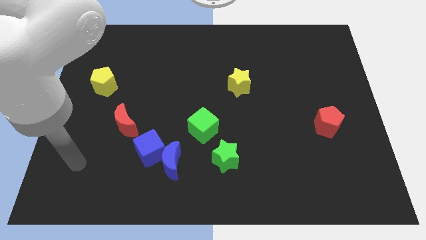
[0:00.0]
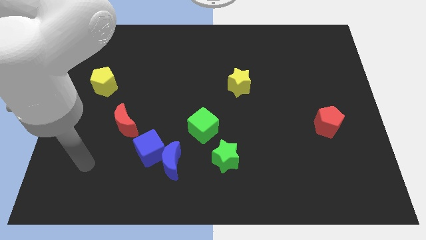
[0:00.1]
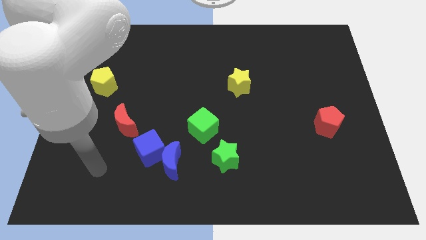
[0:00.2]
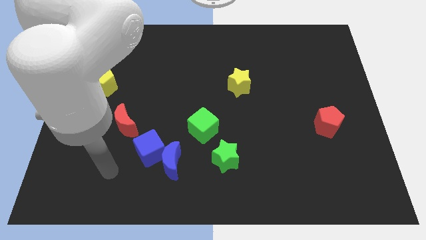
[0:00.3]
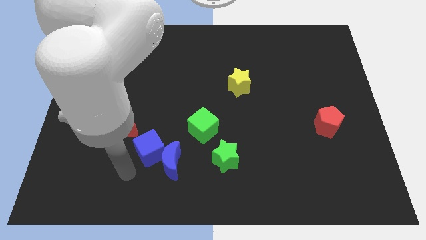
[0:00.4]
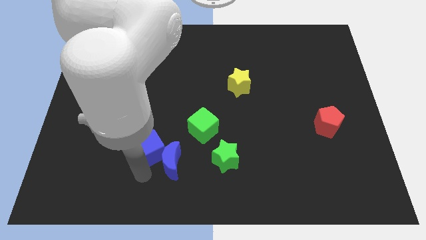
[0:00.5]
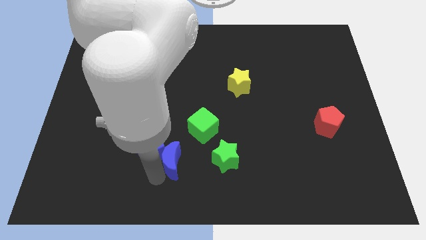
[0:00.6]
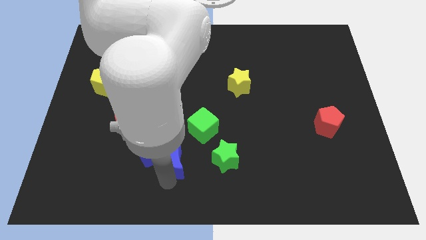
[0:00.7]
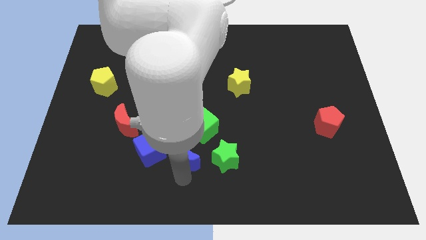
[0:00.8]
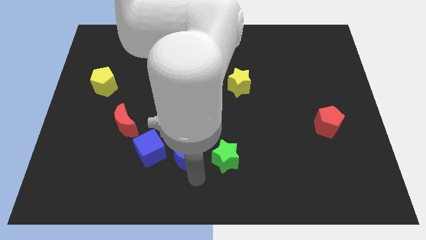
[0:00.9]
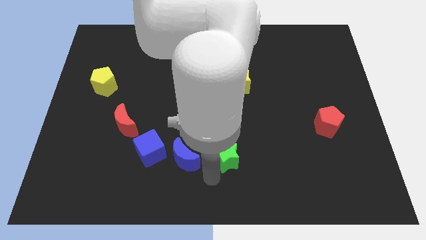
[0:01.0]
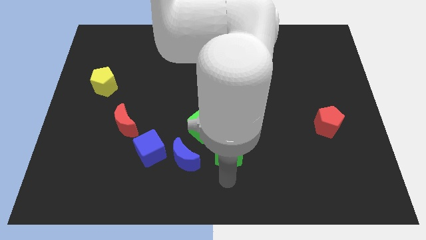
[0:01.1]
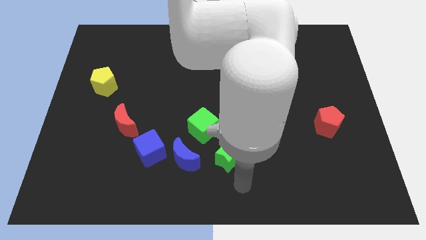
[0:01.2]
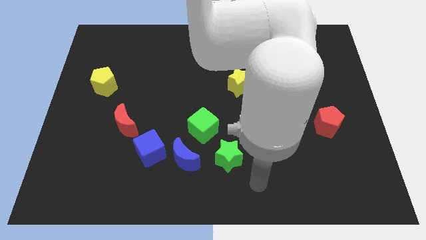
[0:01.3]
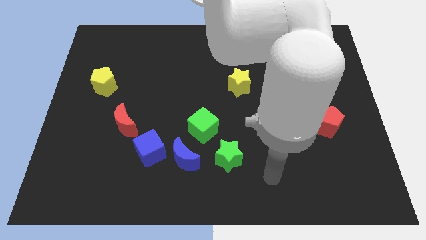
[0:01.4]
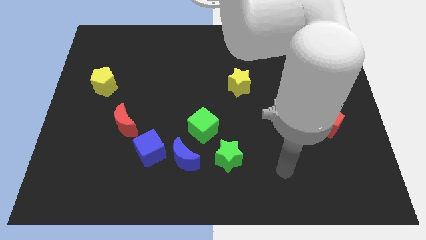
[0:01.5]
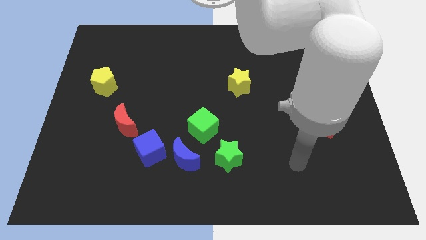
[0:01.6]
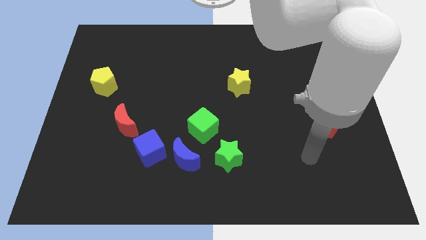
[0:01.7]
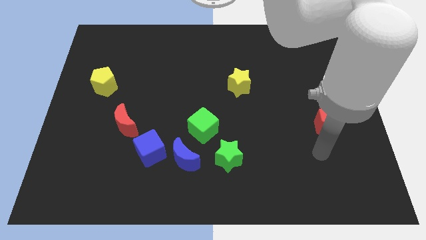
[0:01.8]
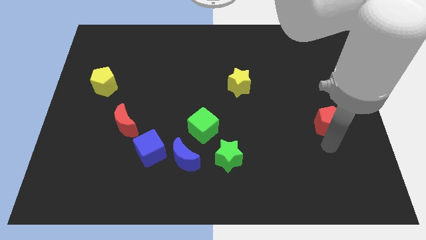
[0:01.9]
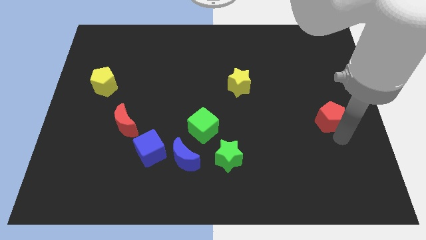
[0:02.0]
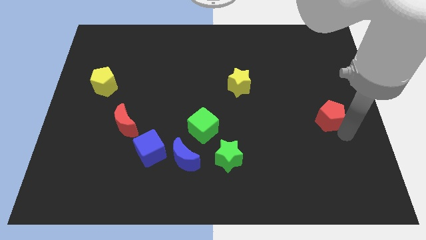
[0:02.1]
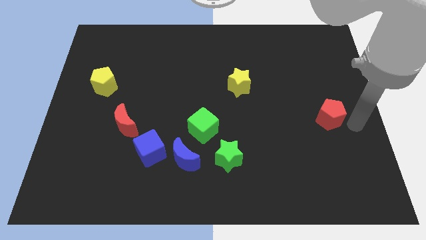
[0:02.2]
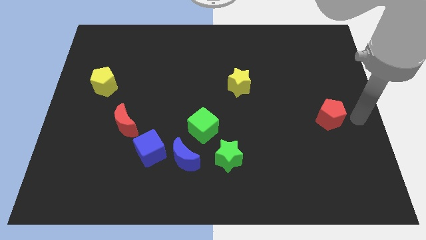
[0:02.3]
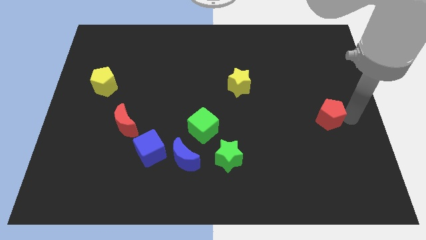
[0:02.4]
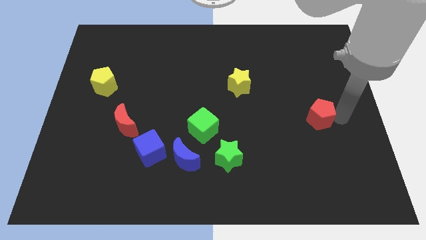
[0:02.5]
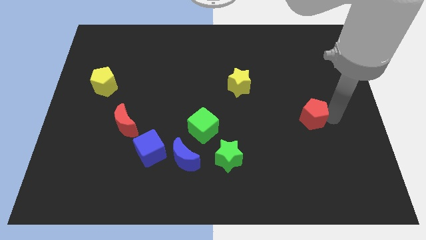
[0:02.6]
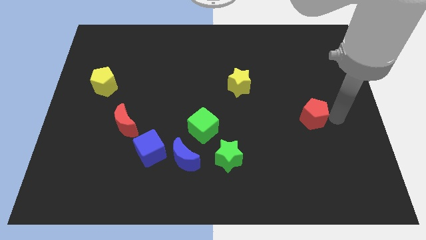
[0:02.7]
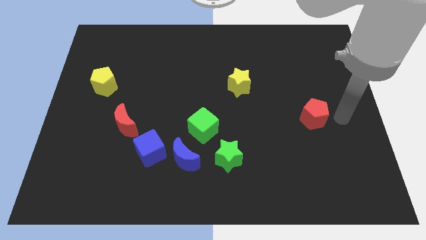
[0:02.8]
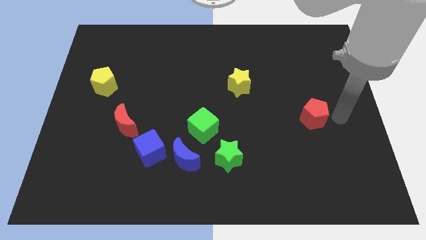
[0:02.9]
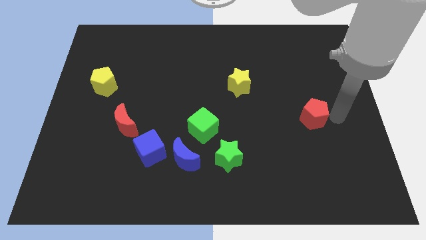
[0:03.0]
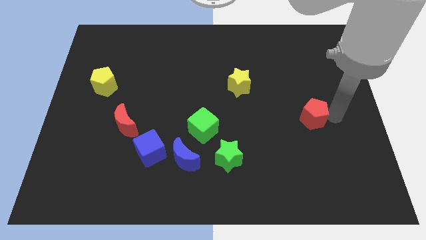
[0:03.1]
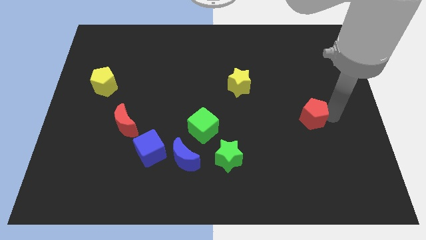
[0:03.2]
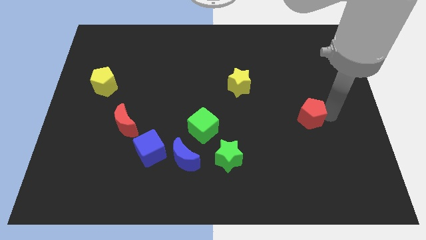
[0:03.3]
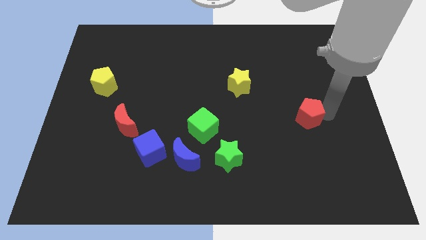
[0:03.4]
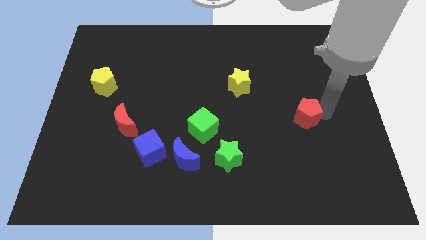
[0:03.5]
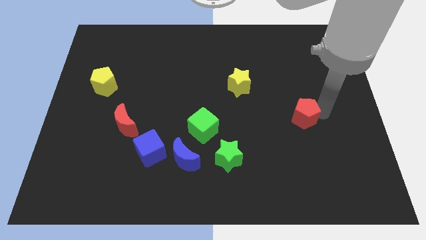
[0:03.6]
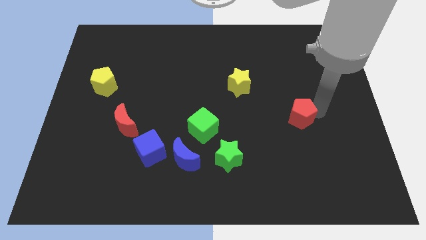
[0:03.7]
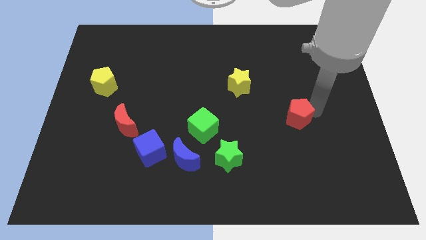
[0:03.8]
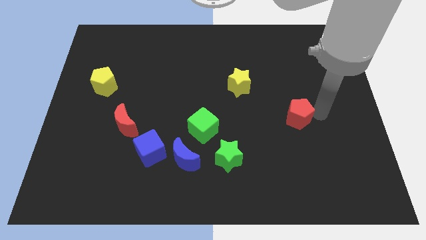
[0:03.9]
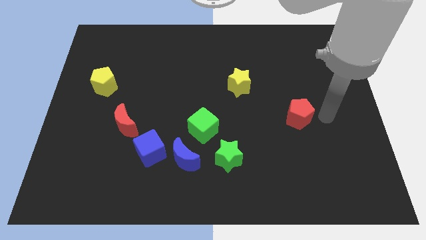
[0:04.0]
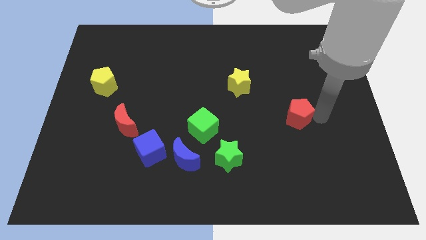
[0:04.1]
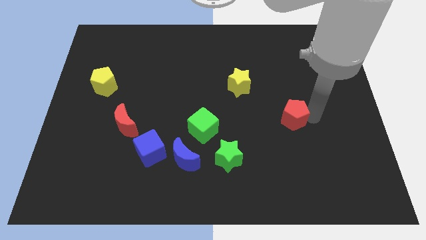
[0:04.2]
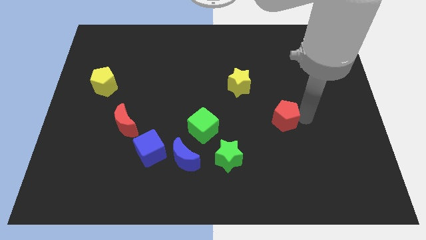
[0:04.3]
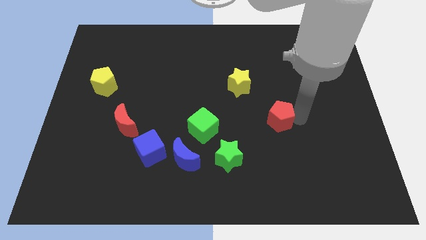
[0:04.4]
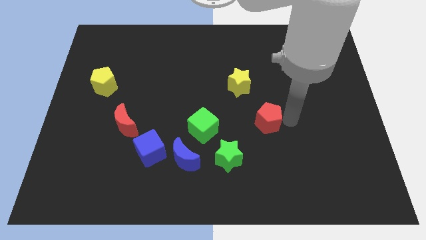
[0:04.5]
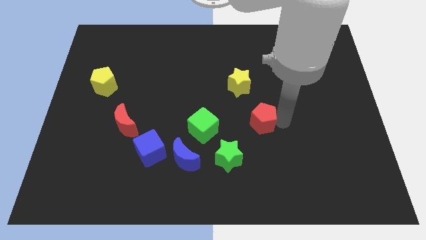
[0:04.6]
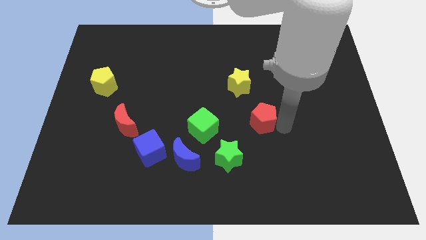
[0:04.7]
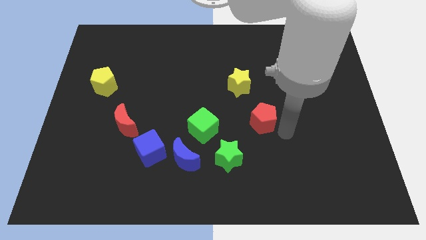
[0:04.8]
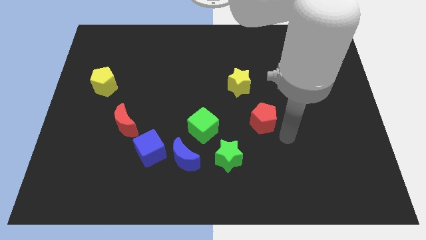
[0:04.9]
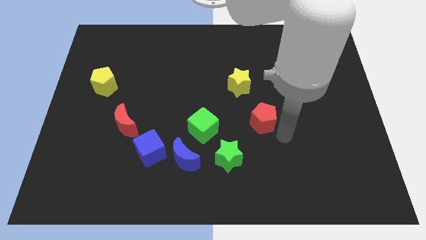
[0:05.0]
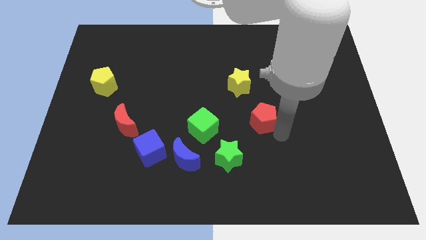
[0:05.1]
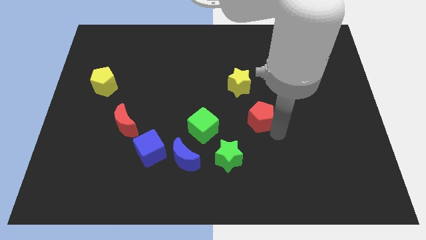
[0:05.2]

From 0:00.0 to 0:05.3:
move the red pentagon to the center of the board
